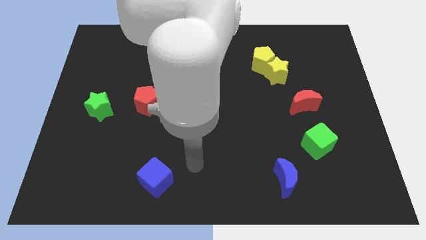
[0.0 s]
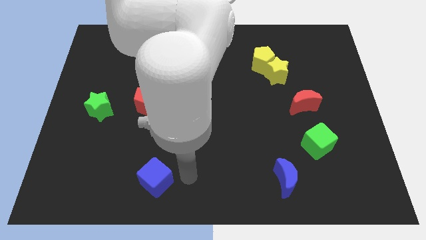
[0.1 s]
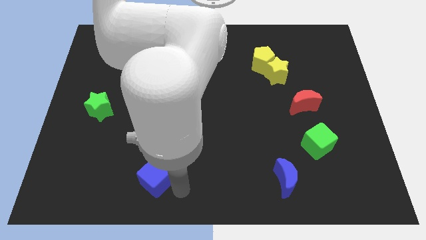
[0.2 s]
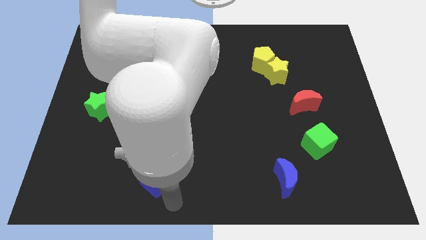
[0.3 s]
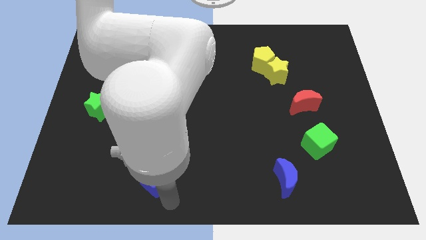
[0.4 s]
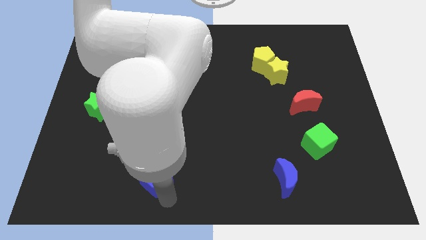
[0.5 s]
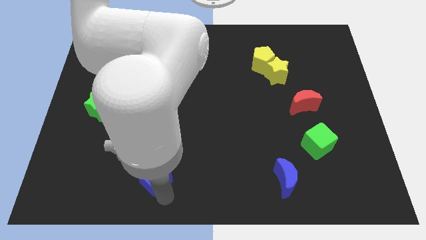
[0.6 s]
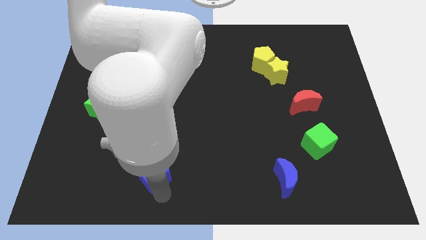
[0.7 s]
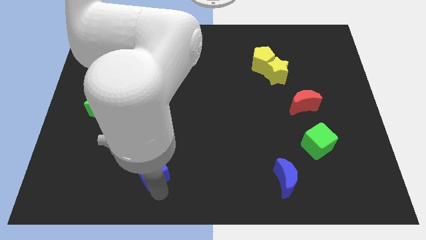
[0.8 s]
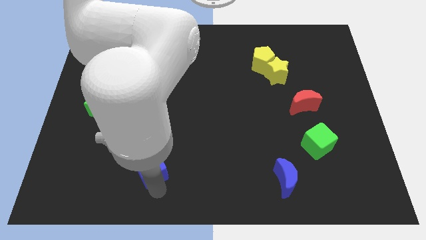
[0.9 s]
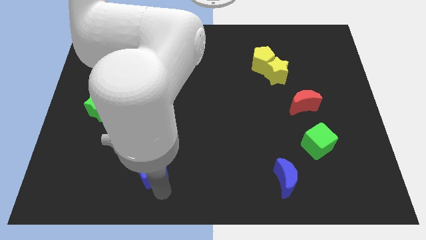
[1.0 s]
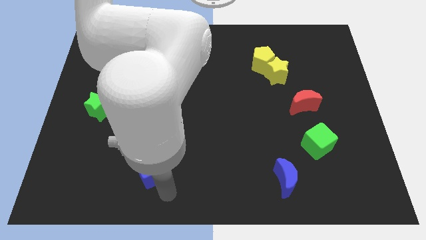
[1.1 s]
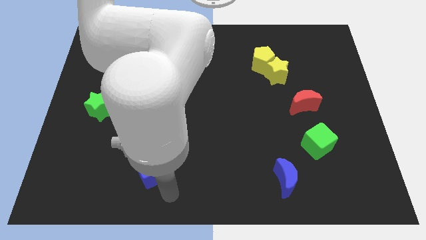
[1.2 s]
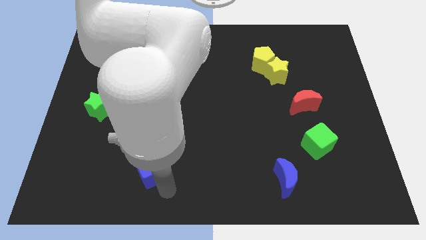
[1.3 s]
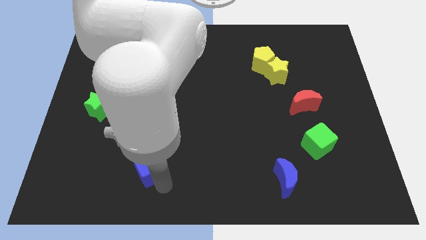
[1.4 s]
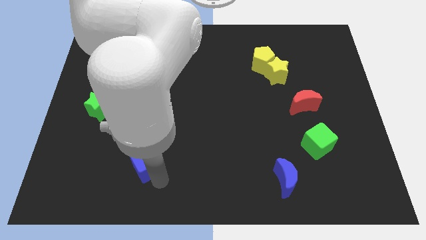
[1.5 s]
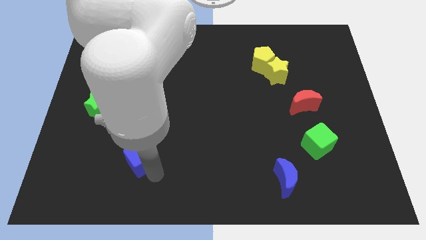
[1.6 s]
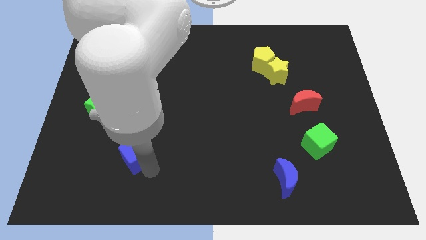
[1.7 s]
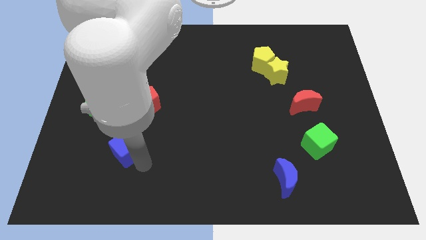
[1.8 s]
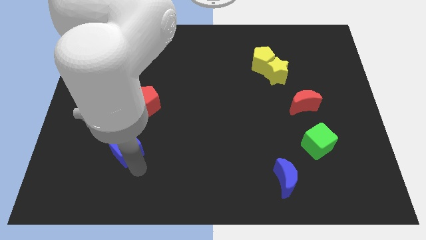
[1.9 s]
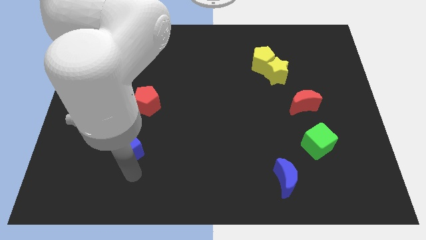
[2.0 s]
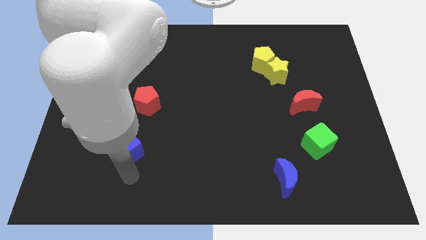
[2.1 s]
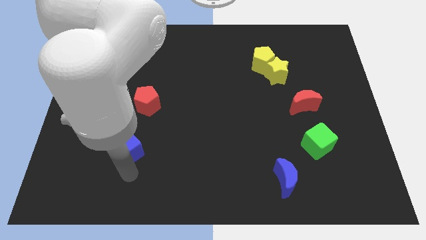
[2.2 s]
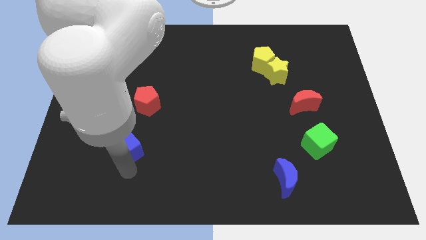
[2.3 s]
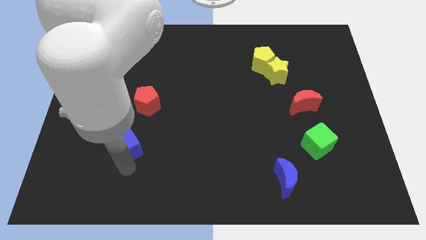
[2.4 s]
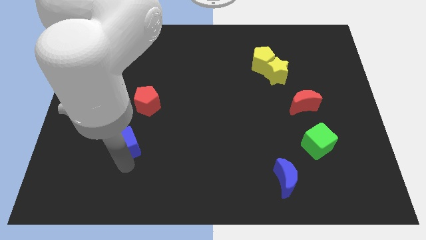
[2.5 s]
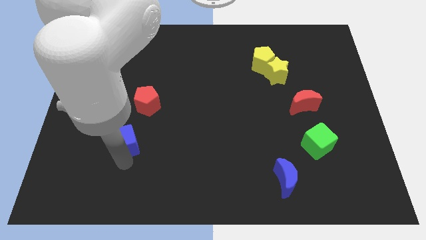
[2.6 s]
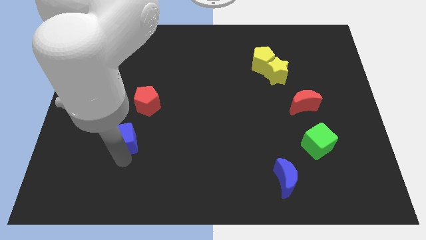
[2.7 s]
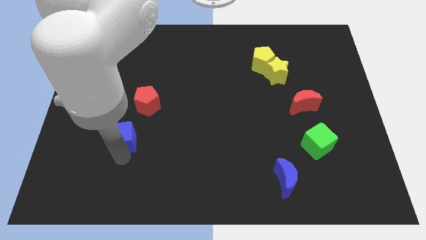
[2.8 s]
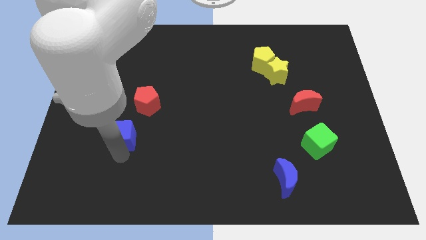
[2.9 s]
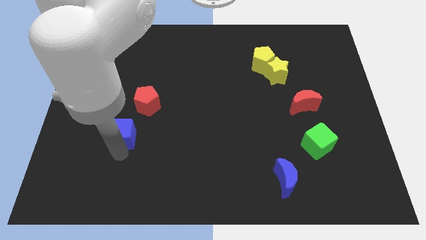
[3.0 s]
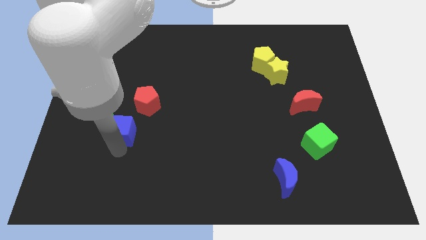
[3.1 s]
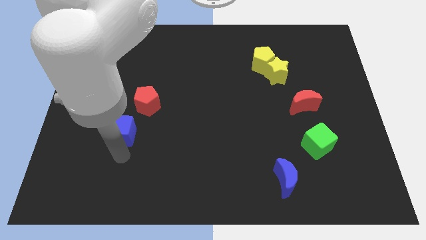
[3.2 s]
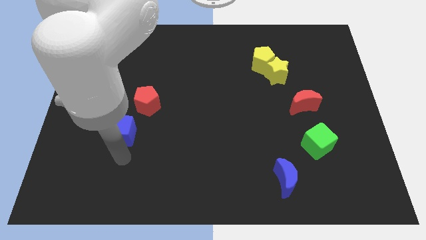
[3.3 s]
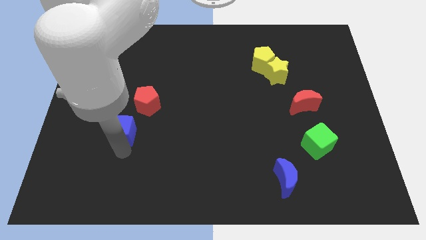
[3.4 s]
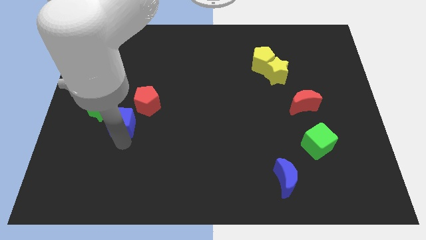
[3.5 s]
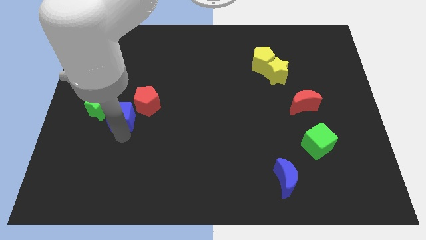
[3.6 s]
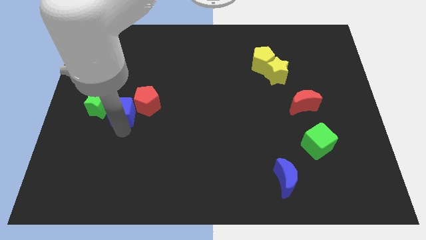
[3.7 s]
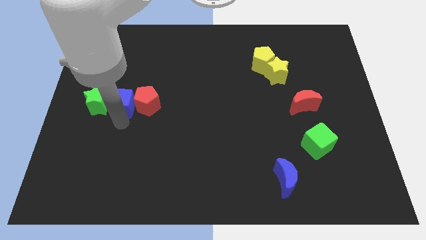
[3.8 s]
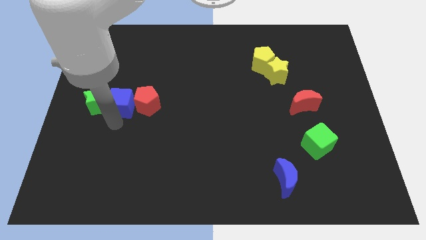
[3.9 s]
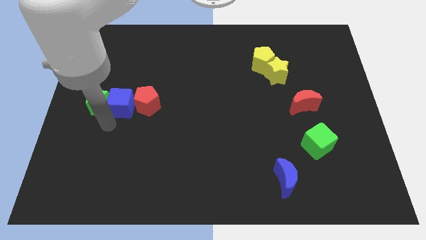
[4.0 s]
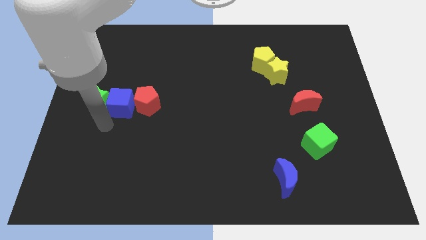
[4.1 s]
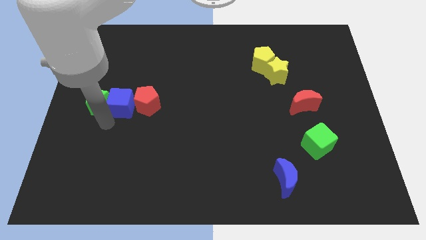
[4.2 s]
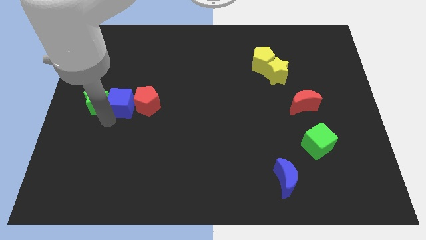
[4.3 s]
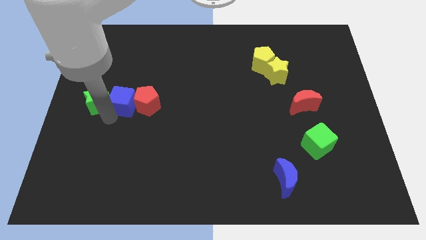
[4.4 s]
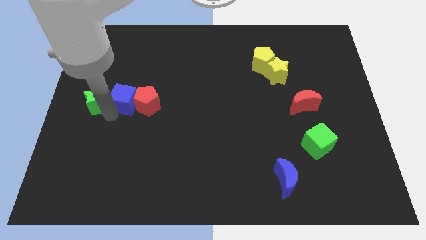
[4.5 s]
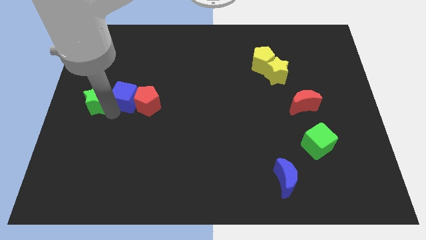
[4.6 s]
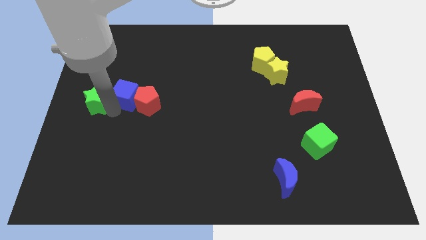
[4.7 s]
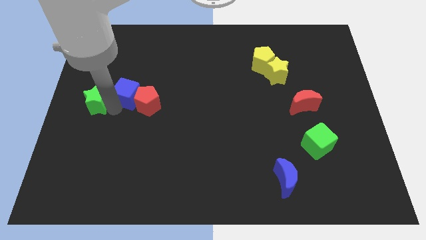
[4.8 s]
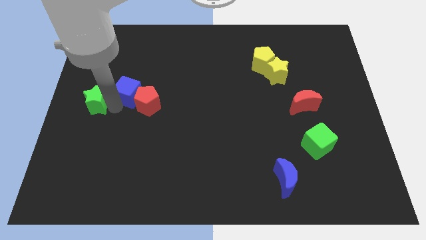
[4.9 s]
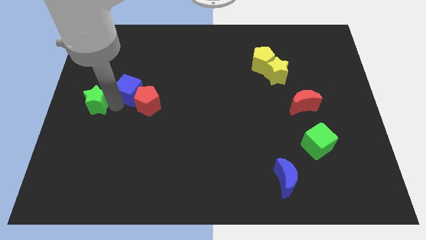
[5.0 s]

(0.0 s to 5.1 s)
put the blue cube above the red pentagon

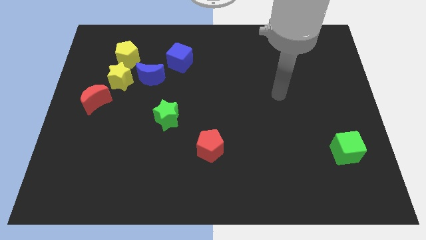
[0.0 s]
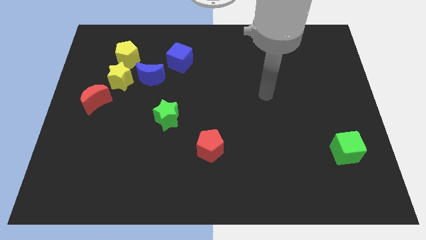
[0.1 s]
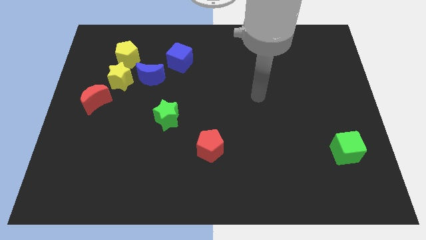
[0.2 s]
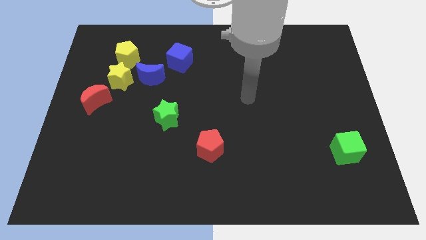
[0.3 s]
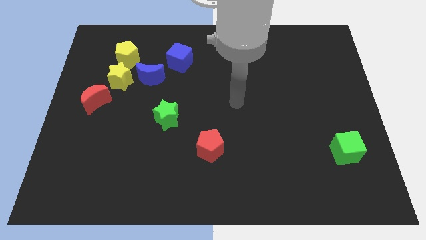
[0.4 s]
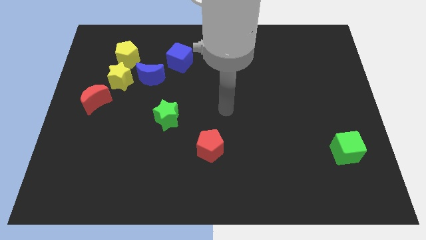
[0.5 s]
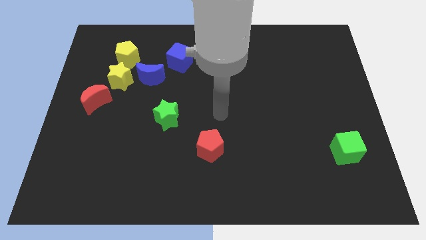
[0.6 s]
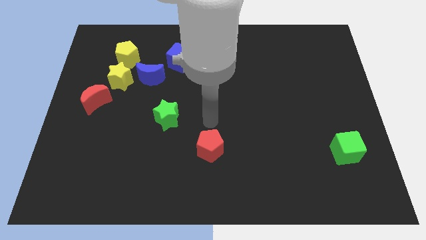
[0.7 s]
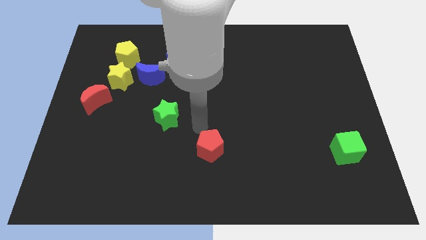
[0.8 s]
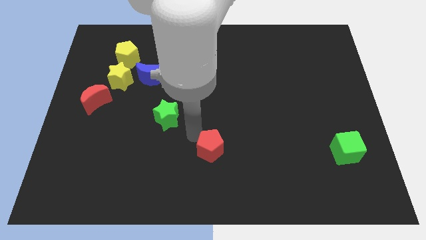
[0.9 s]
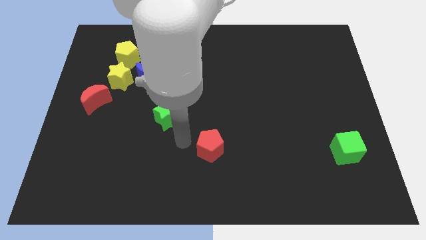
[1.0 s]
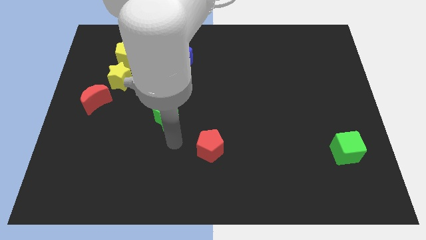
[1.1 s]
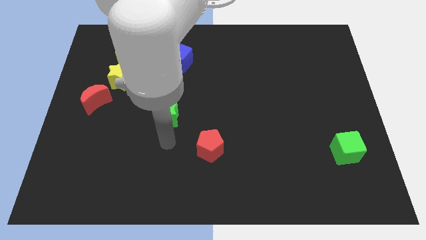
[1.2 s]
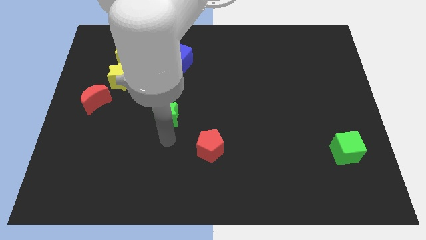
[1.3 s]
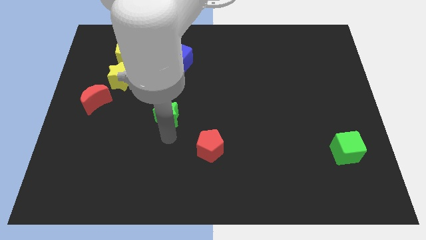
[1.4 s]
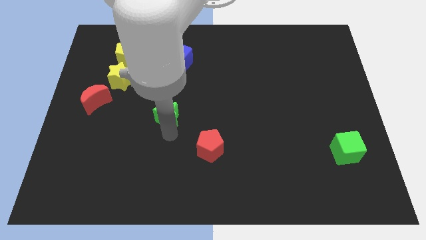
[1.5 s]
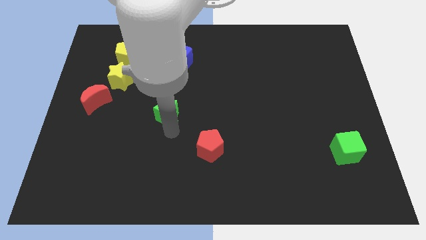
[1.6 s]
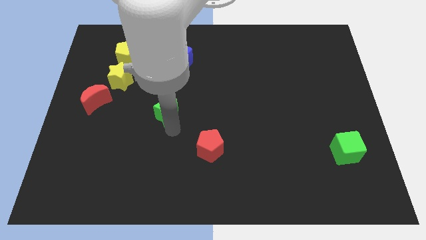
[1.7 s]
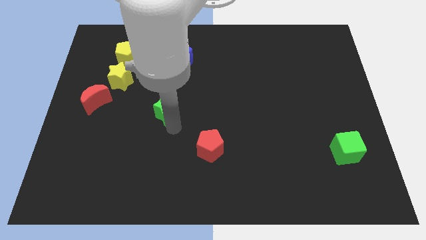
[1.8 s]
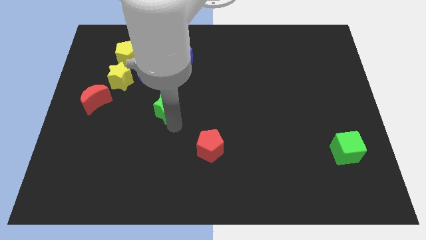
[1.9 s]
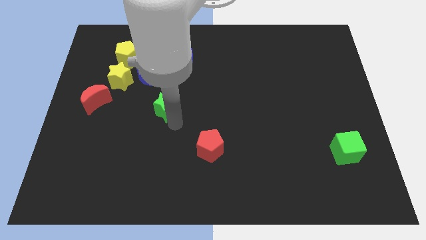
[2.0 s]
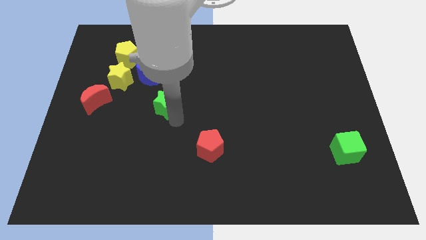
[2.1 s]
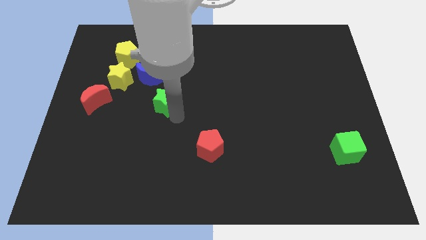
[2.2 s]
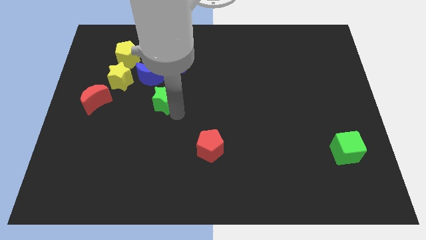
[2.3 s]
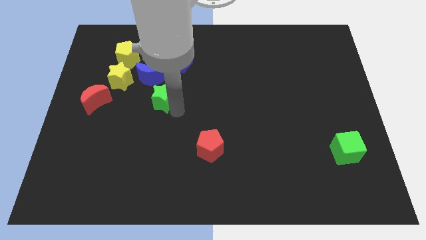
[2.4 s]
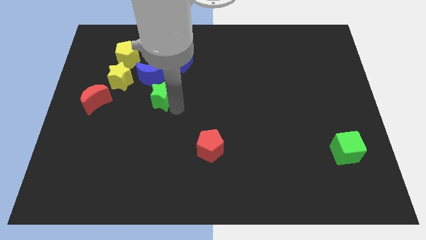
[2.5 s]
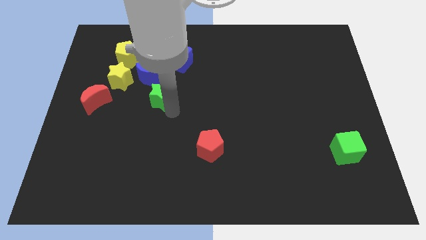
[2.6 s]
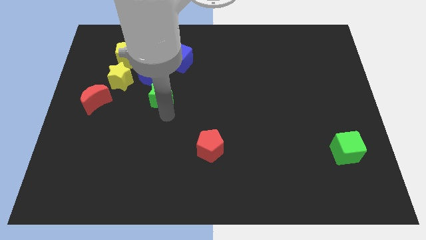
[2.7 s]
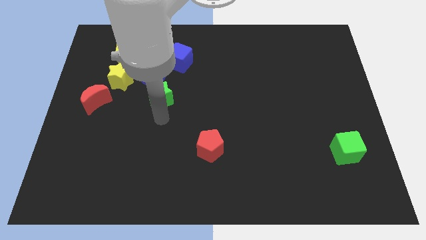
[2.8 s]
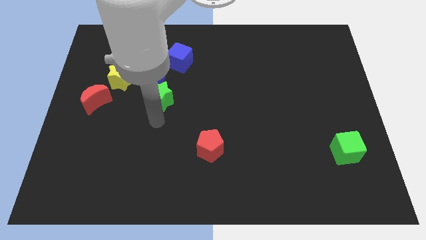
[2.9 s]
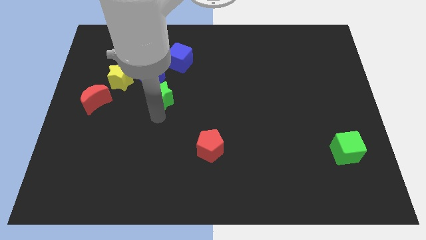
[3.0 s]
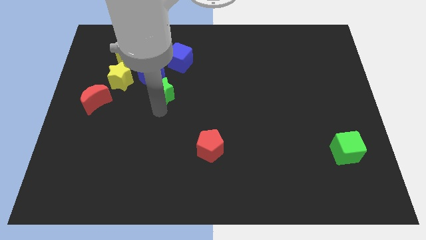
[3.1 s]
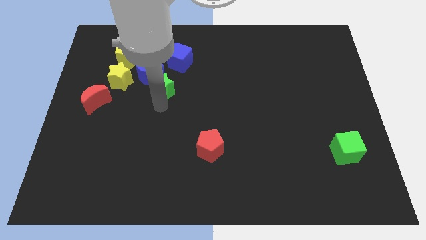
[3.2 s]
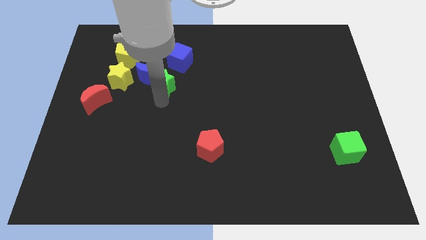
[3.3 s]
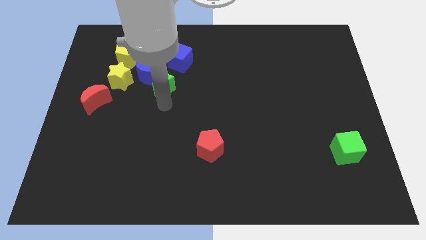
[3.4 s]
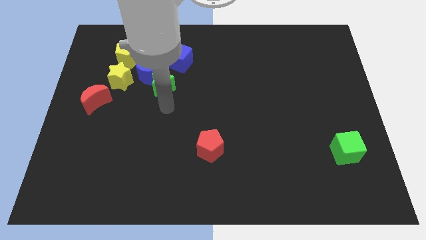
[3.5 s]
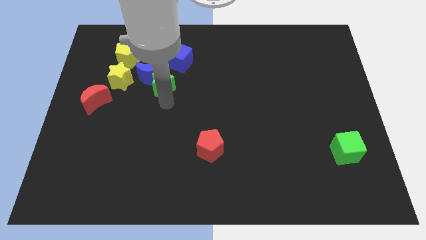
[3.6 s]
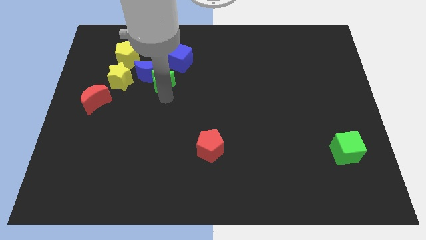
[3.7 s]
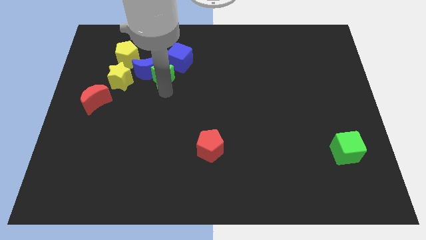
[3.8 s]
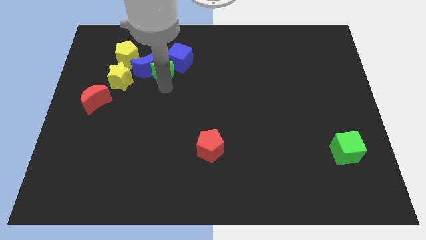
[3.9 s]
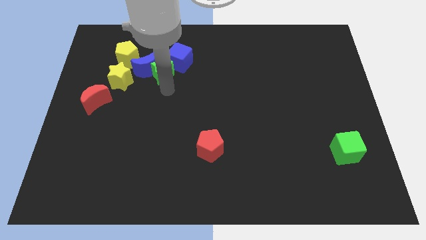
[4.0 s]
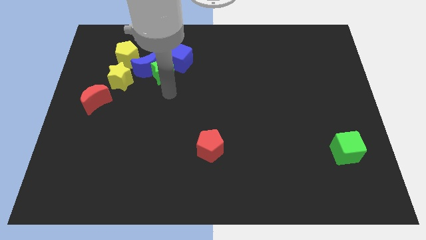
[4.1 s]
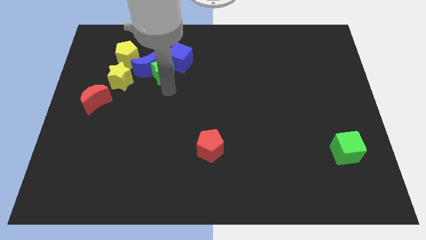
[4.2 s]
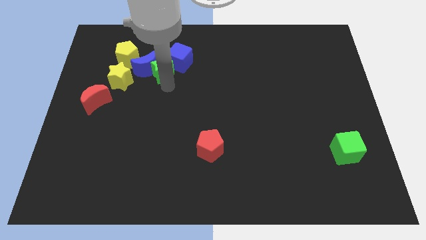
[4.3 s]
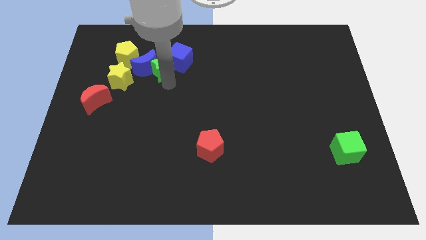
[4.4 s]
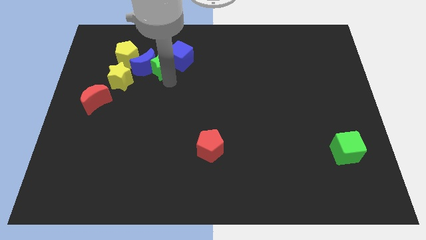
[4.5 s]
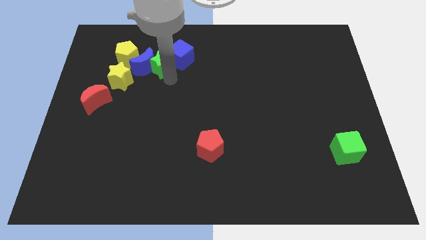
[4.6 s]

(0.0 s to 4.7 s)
push the green star diagonally up and to the right of the yellow star
